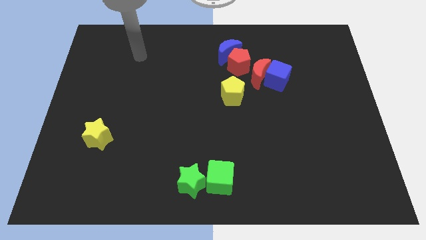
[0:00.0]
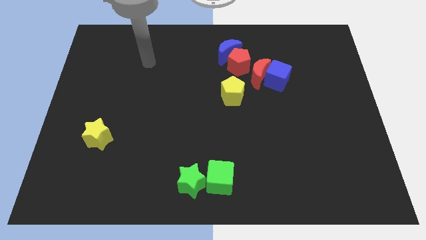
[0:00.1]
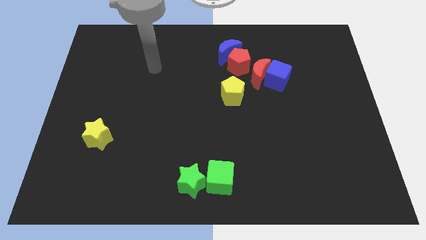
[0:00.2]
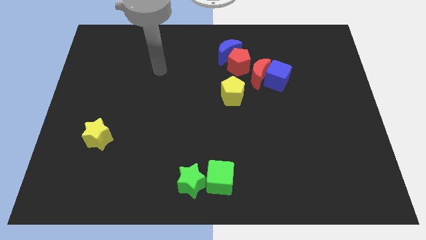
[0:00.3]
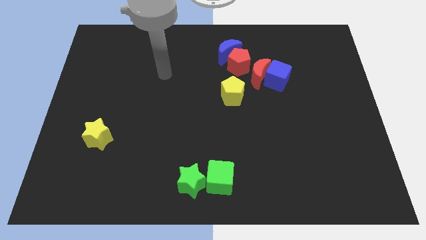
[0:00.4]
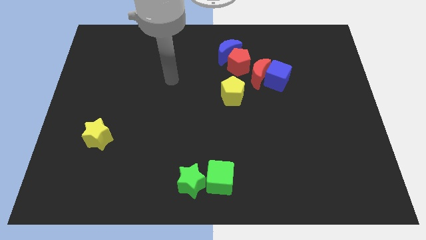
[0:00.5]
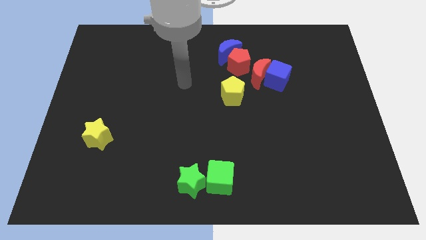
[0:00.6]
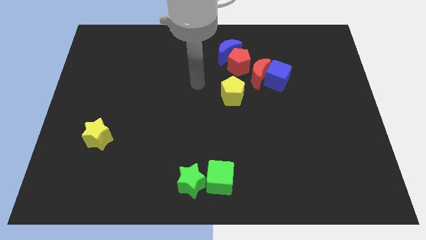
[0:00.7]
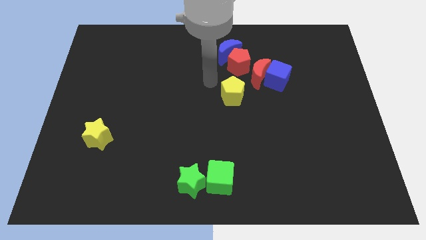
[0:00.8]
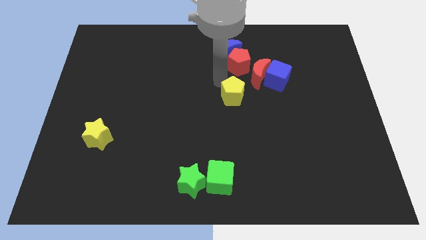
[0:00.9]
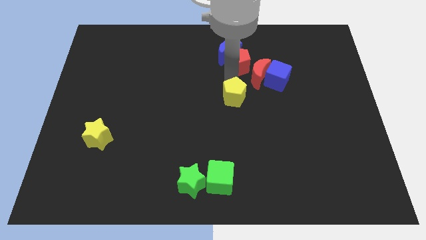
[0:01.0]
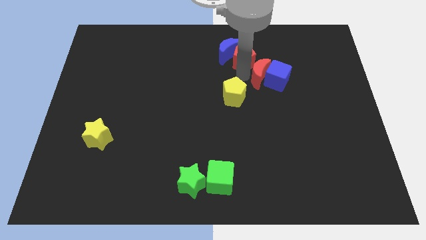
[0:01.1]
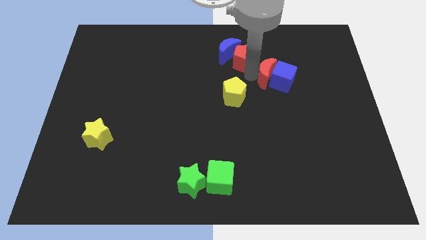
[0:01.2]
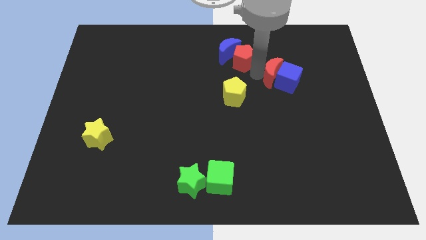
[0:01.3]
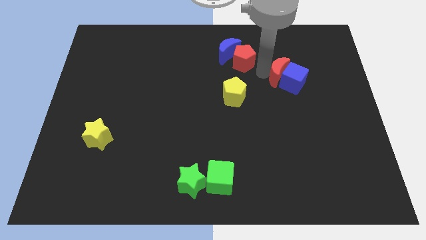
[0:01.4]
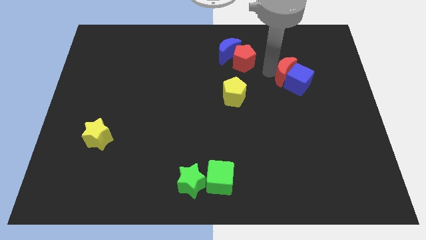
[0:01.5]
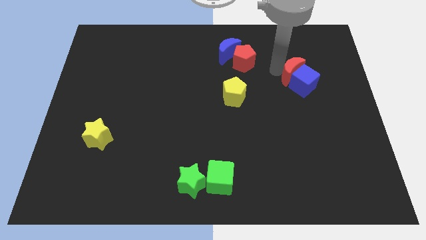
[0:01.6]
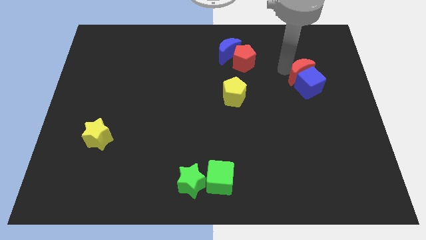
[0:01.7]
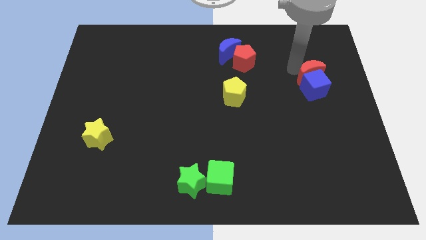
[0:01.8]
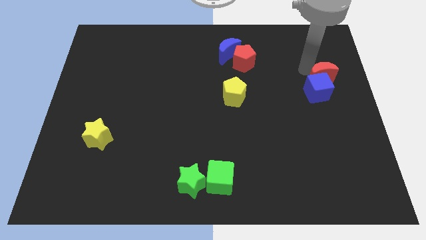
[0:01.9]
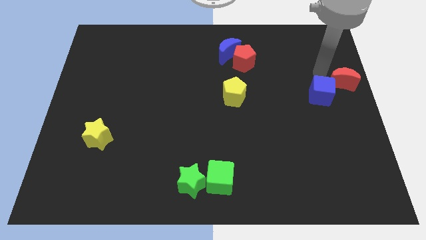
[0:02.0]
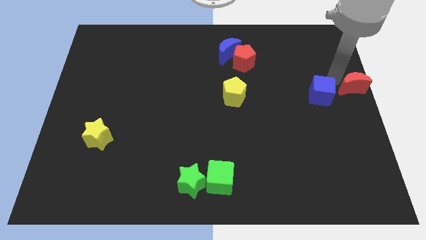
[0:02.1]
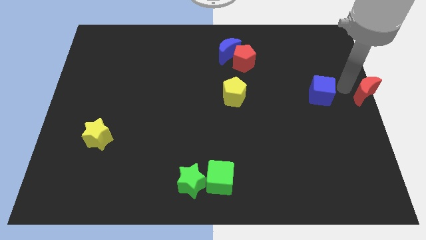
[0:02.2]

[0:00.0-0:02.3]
move the blue cube away from the red moon

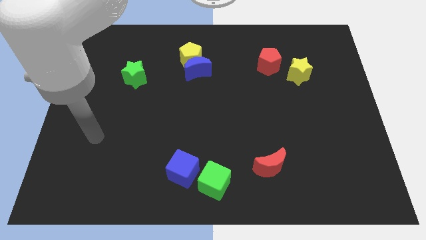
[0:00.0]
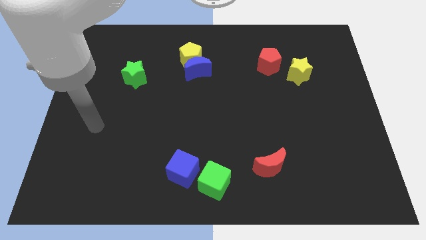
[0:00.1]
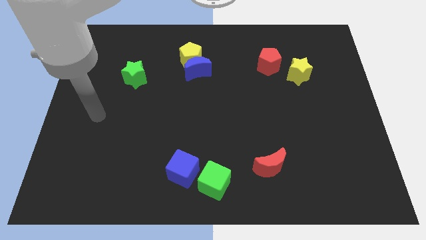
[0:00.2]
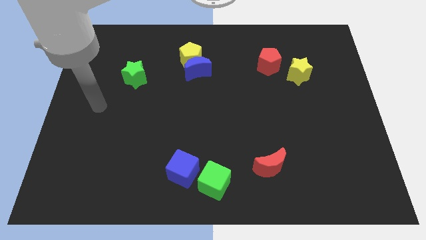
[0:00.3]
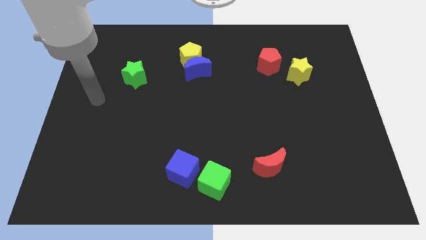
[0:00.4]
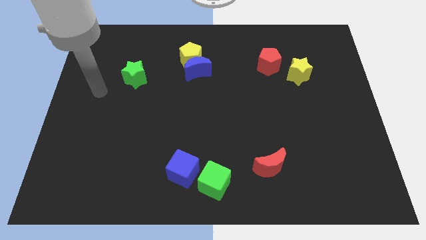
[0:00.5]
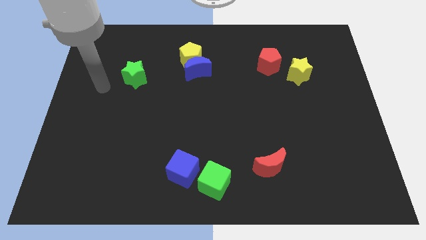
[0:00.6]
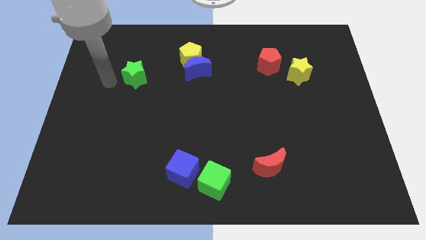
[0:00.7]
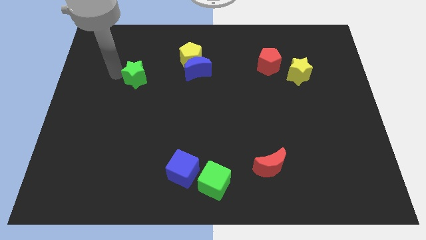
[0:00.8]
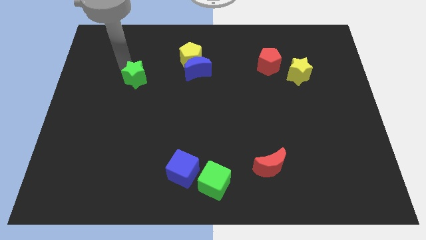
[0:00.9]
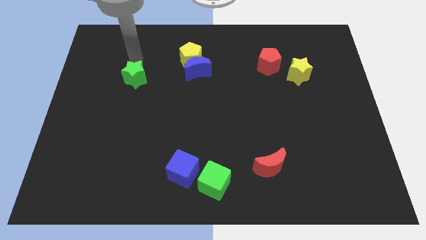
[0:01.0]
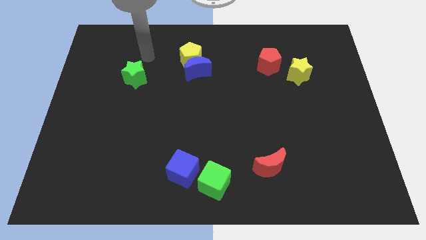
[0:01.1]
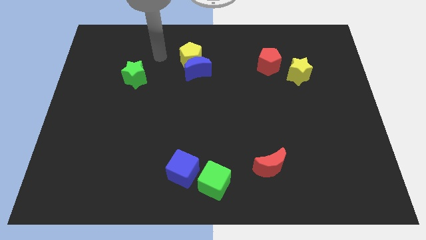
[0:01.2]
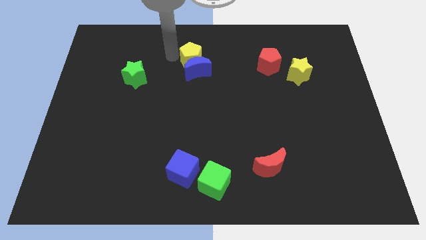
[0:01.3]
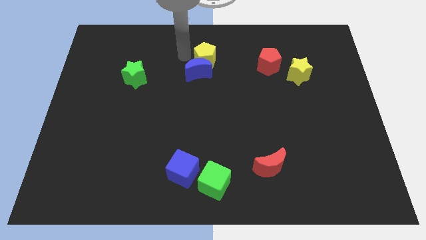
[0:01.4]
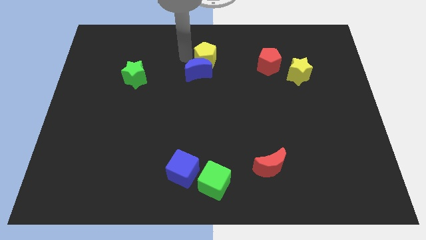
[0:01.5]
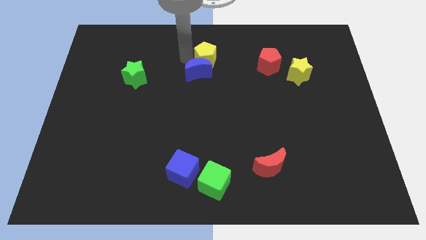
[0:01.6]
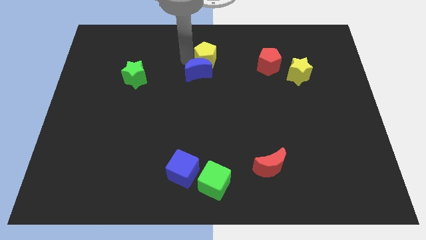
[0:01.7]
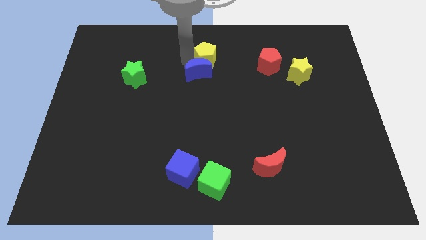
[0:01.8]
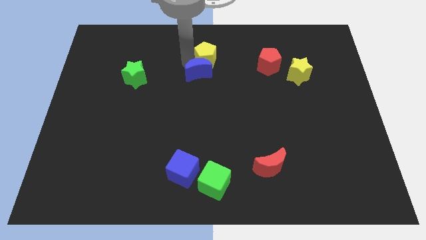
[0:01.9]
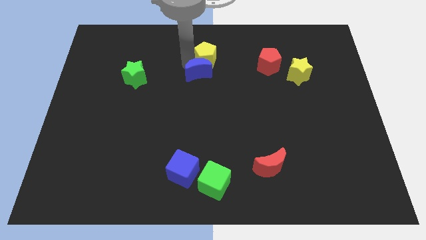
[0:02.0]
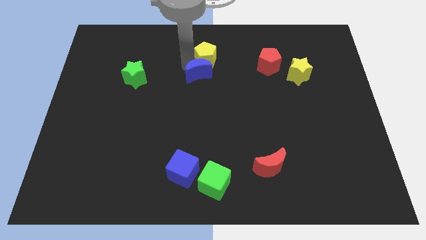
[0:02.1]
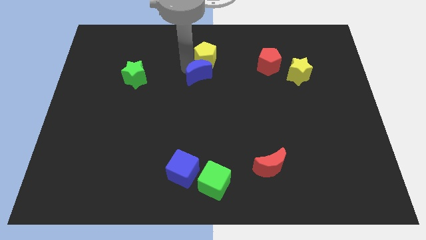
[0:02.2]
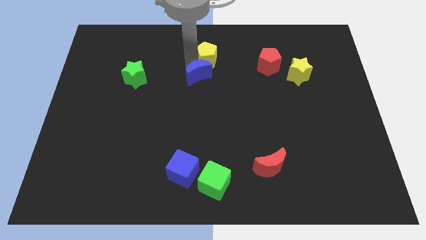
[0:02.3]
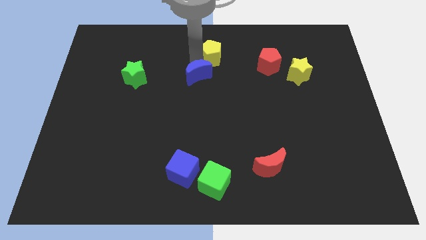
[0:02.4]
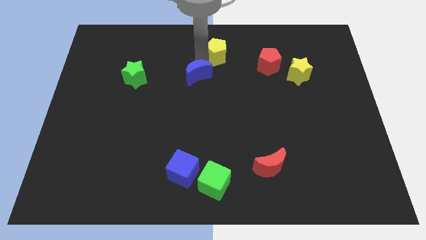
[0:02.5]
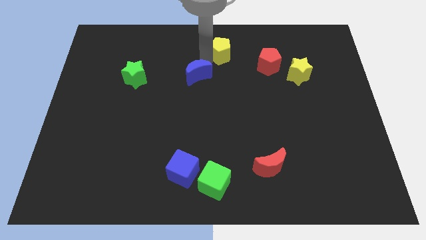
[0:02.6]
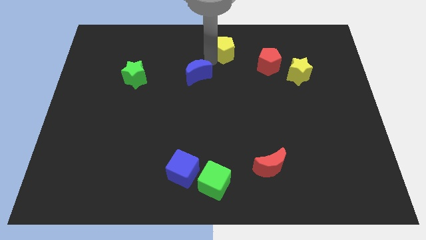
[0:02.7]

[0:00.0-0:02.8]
move the blue moon away from the yellow pentagon

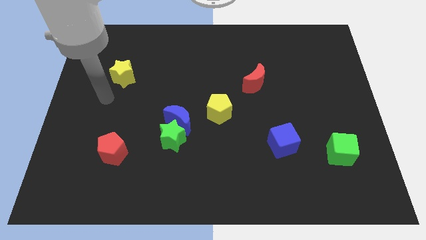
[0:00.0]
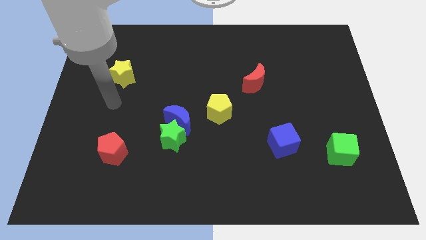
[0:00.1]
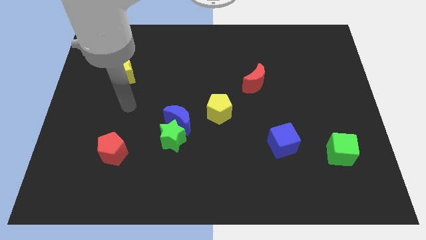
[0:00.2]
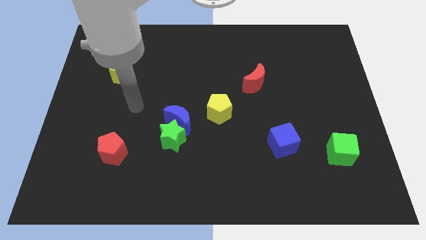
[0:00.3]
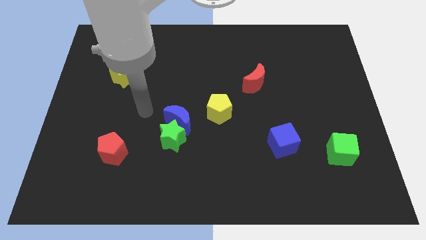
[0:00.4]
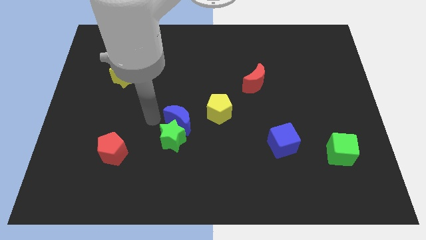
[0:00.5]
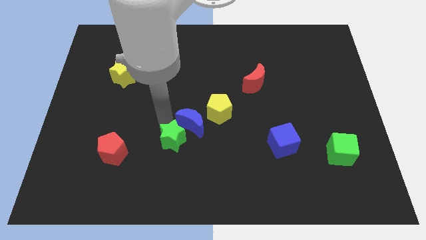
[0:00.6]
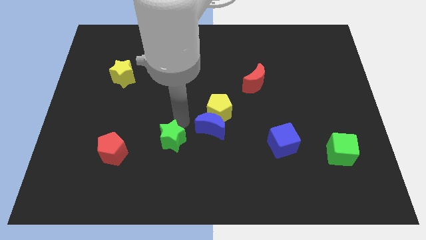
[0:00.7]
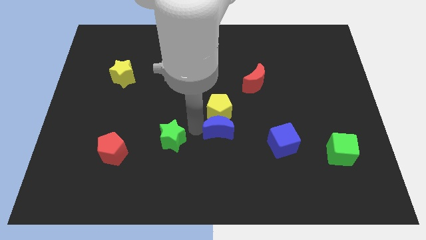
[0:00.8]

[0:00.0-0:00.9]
separate the green star from the blue moon

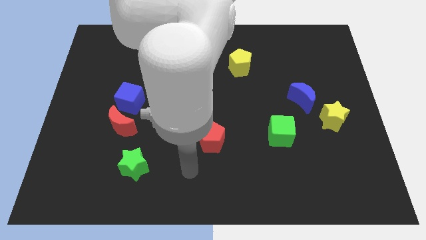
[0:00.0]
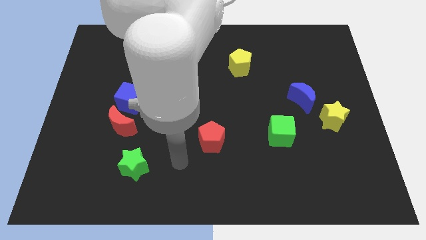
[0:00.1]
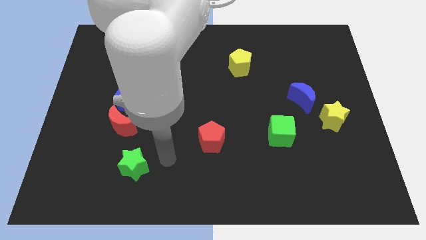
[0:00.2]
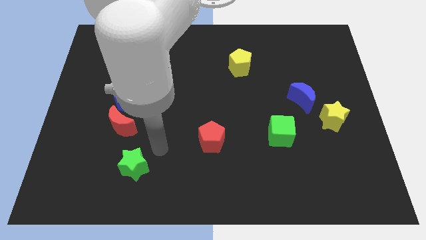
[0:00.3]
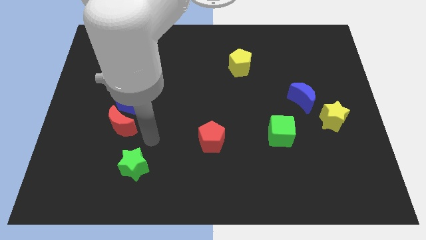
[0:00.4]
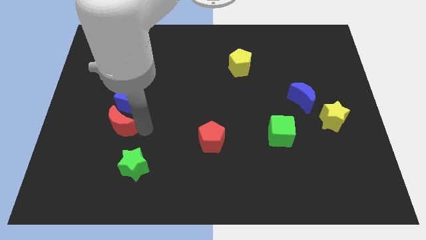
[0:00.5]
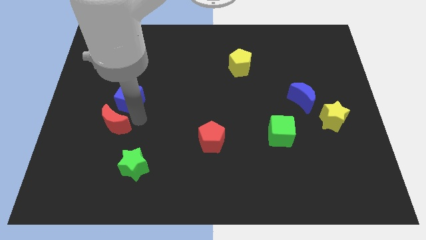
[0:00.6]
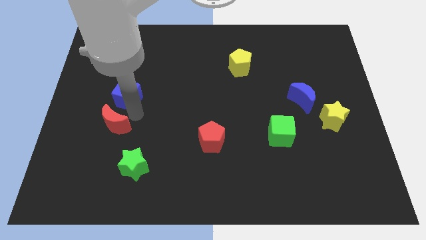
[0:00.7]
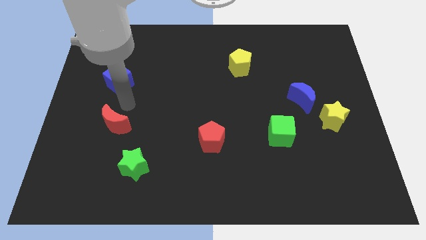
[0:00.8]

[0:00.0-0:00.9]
pull the red moon apart from the blue cube

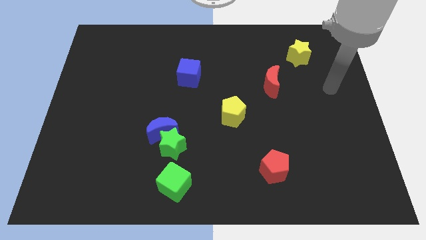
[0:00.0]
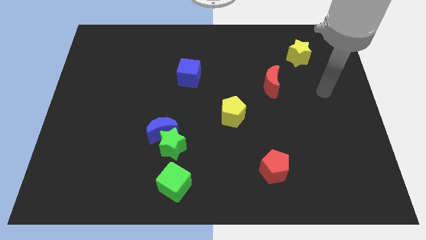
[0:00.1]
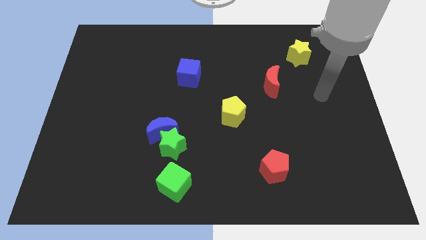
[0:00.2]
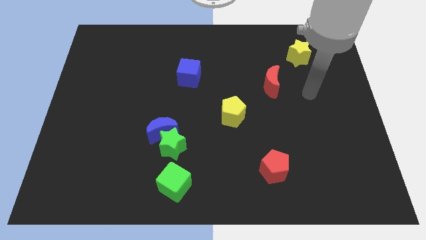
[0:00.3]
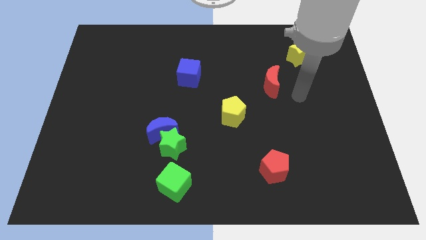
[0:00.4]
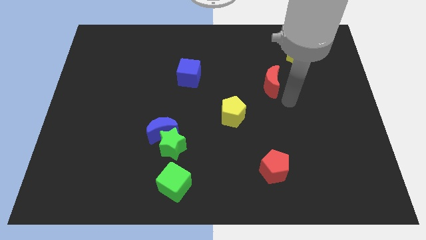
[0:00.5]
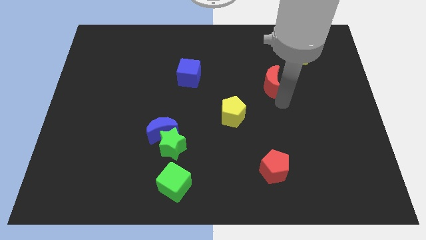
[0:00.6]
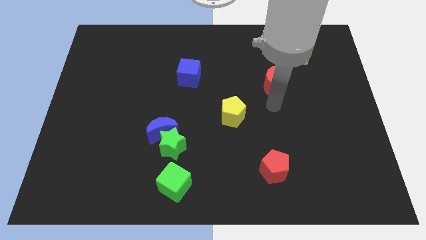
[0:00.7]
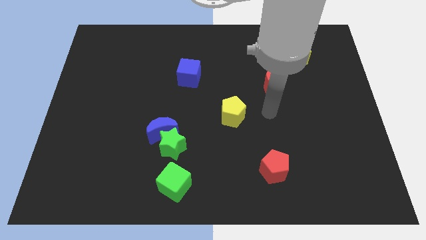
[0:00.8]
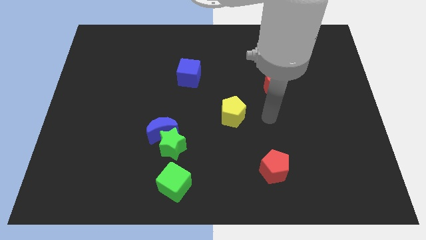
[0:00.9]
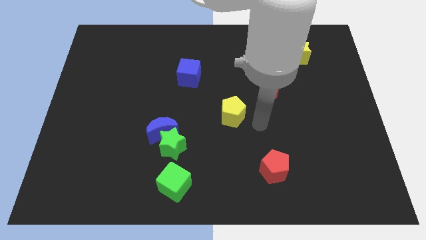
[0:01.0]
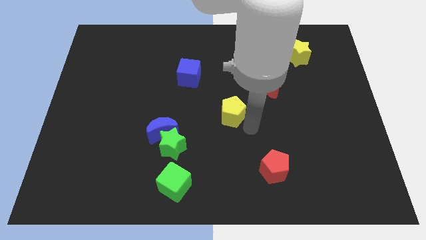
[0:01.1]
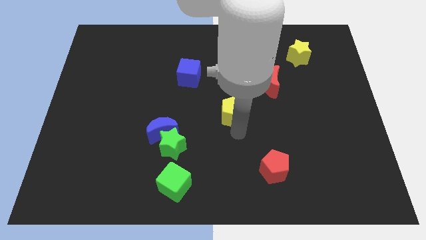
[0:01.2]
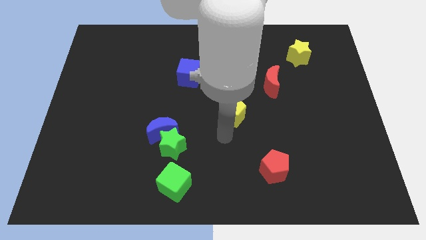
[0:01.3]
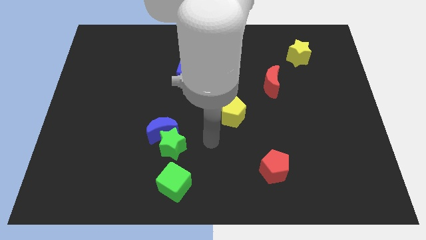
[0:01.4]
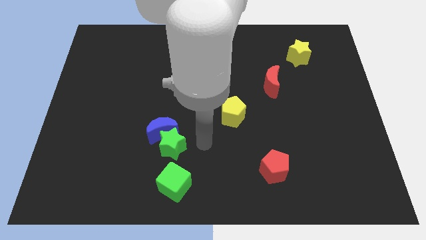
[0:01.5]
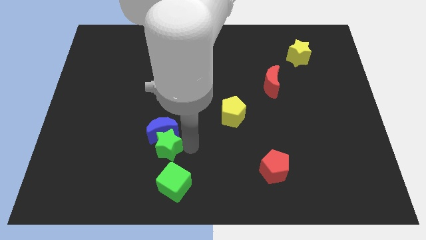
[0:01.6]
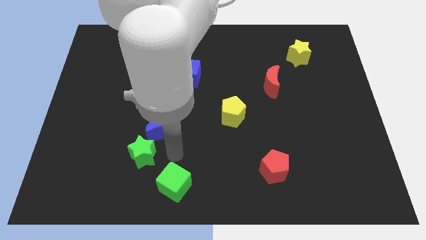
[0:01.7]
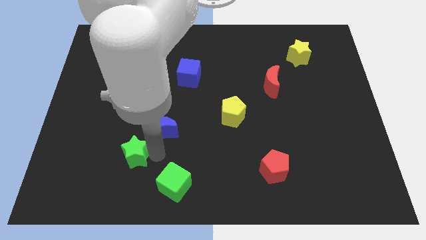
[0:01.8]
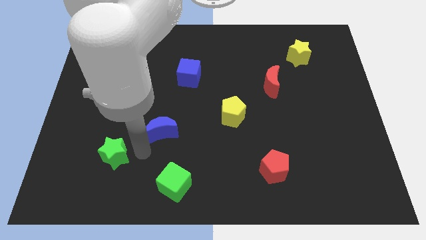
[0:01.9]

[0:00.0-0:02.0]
pull the blue moon apart from the green star

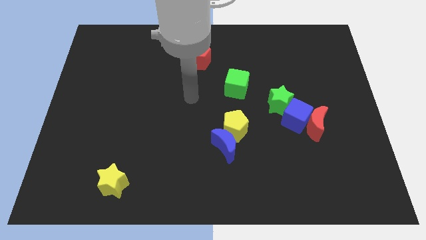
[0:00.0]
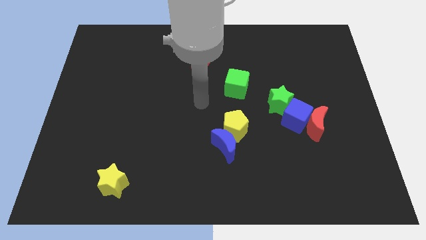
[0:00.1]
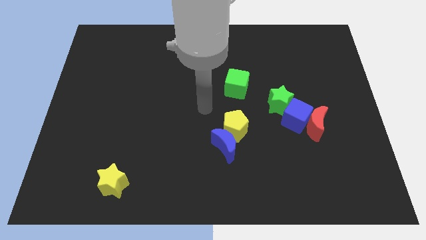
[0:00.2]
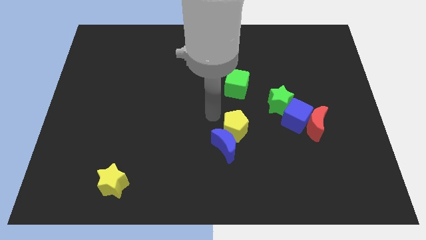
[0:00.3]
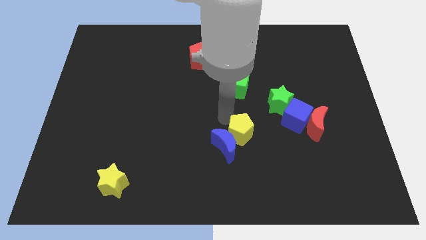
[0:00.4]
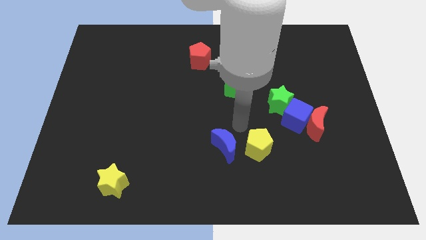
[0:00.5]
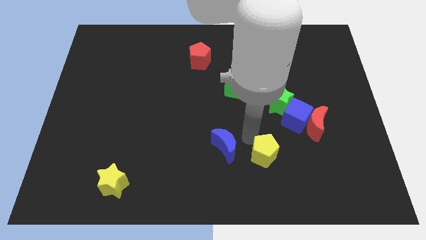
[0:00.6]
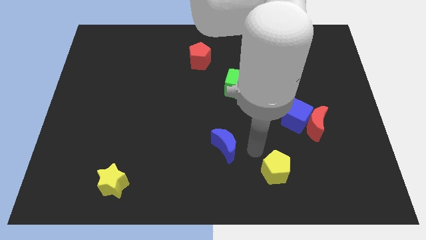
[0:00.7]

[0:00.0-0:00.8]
pull the blue moon apart from the yellow pentagon
